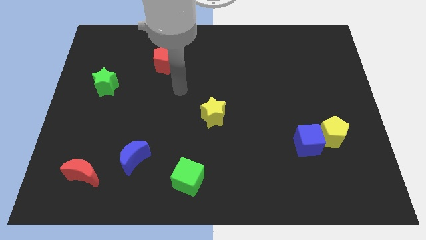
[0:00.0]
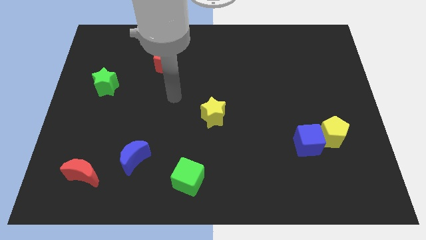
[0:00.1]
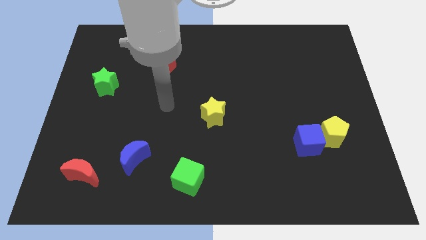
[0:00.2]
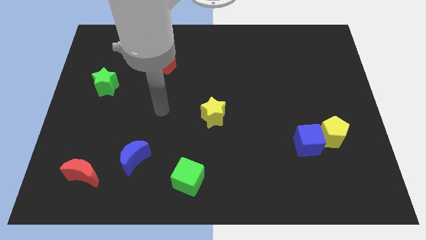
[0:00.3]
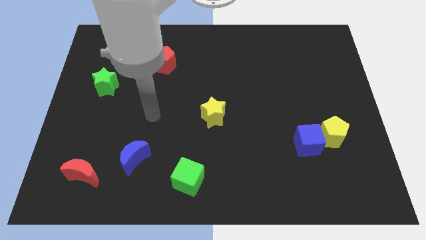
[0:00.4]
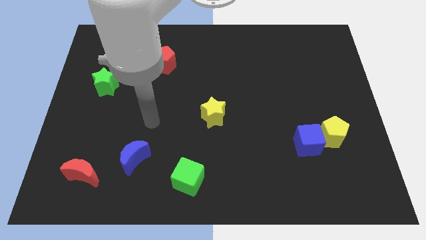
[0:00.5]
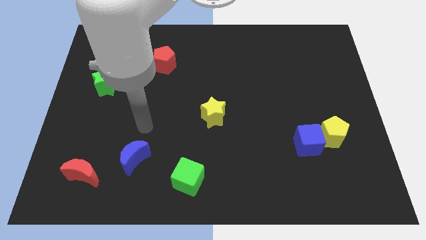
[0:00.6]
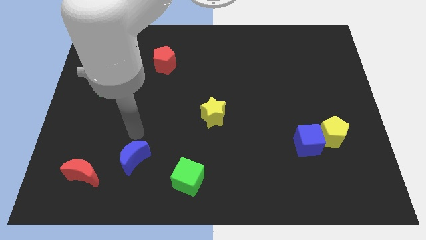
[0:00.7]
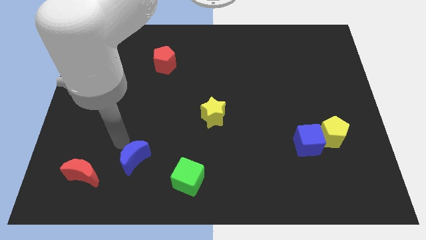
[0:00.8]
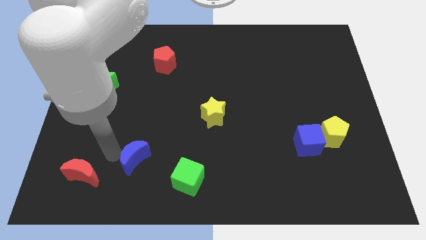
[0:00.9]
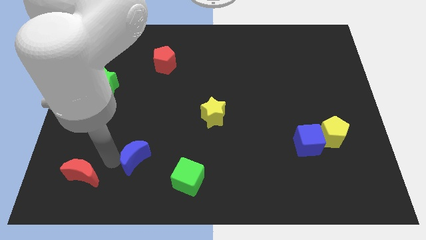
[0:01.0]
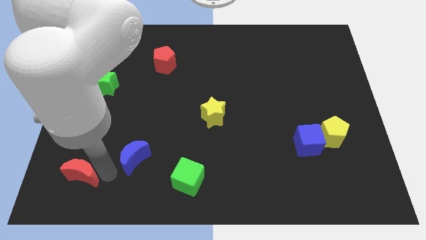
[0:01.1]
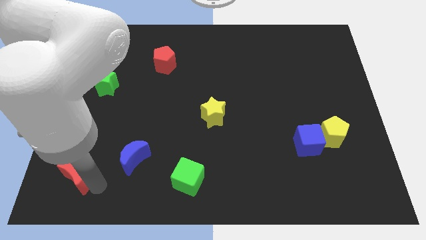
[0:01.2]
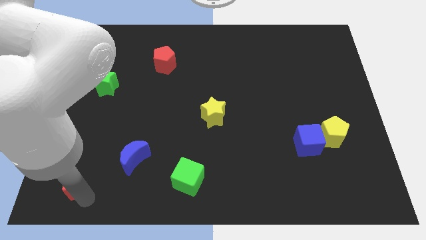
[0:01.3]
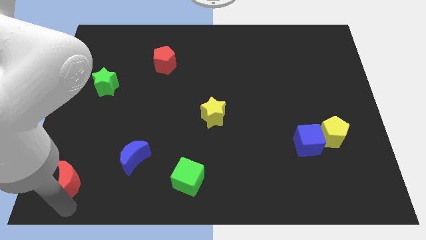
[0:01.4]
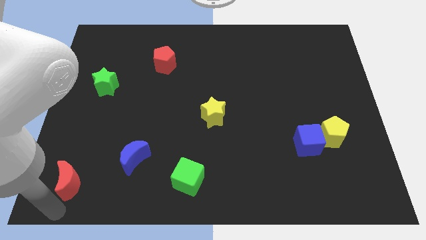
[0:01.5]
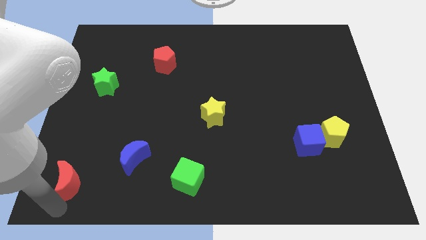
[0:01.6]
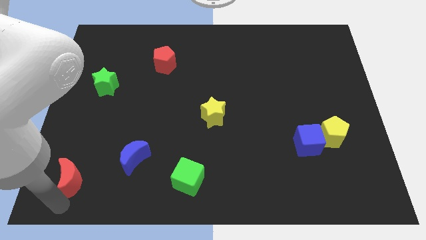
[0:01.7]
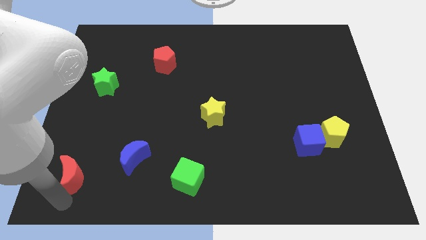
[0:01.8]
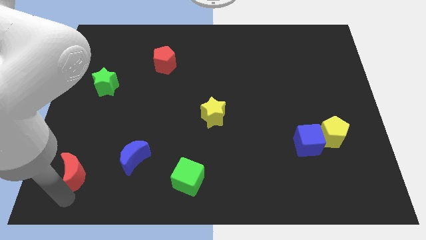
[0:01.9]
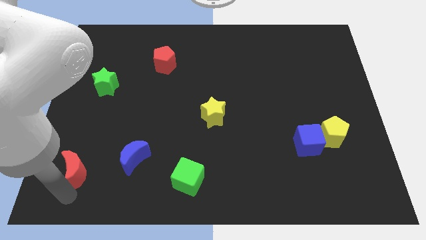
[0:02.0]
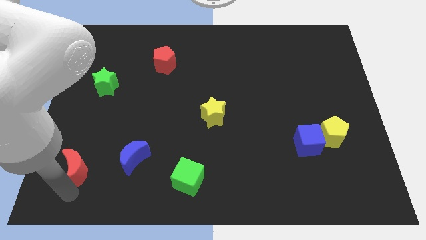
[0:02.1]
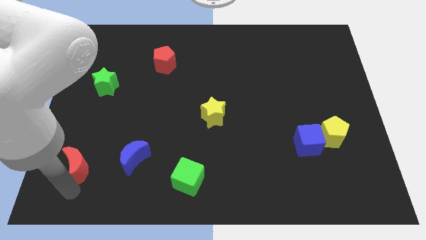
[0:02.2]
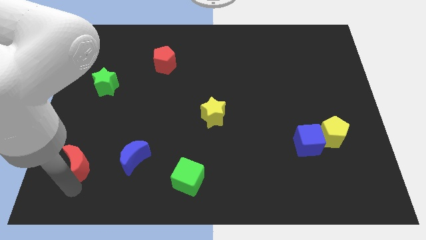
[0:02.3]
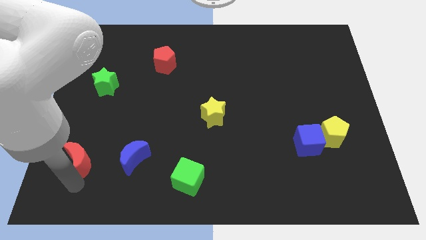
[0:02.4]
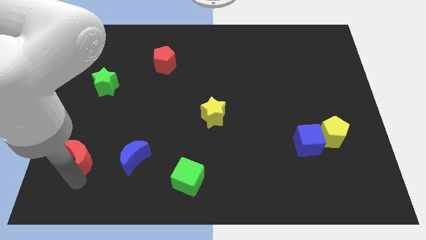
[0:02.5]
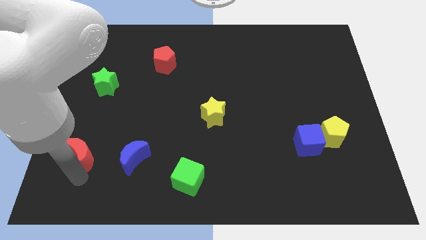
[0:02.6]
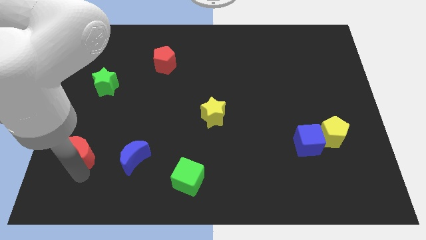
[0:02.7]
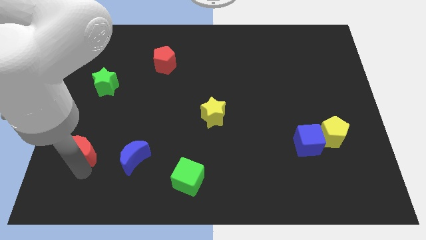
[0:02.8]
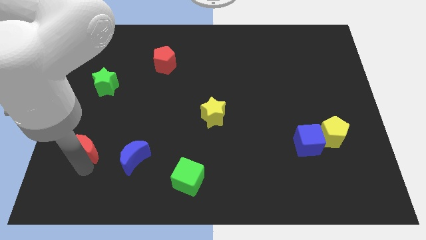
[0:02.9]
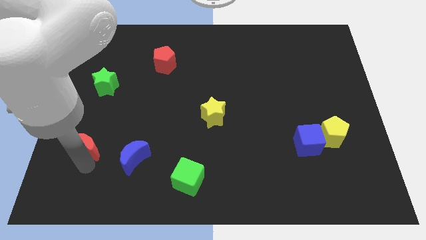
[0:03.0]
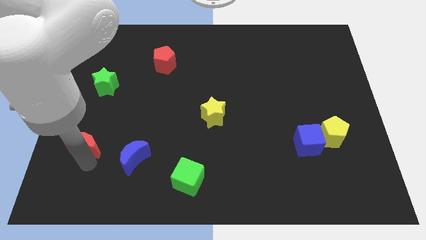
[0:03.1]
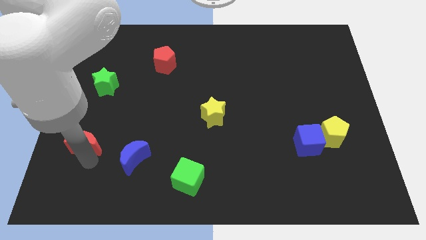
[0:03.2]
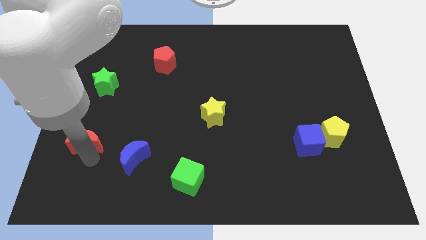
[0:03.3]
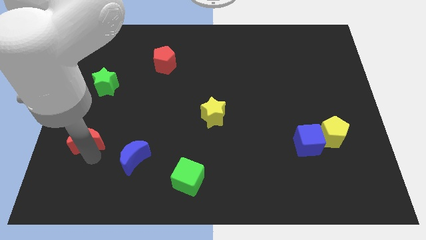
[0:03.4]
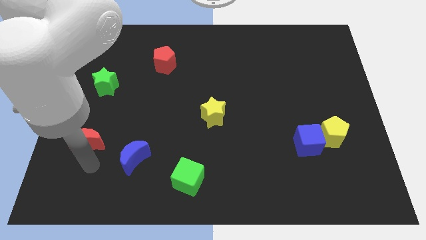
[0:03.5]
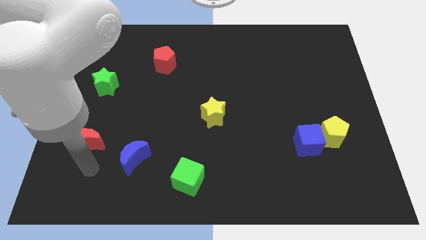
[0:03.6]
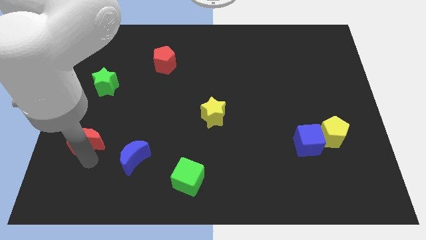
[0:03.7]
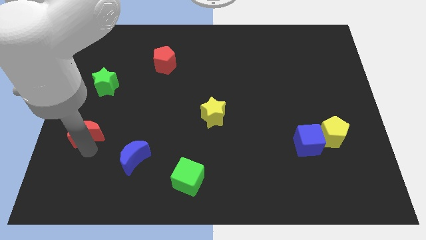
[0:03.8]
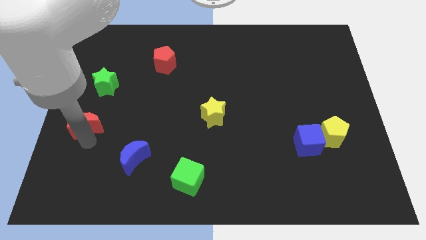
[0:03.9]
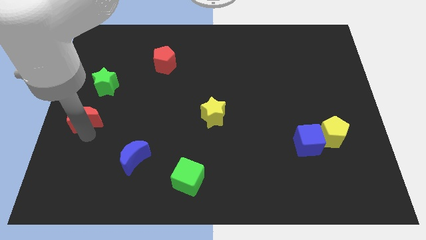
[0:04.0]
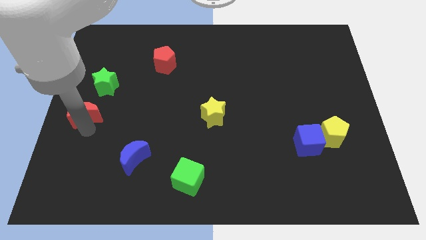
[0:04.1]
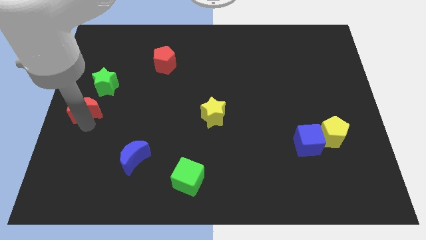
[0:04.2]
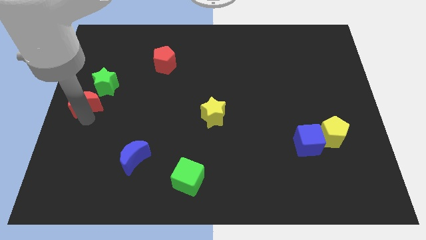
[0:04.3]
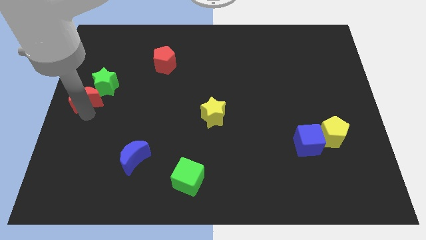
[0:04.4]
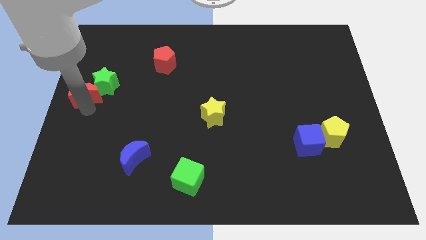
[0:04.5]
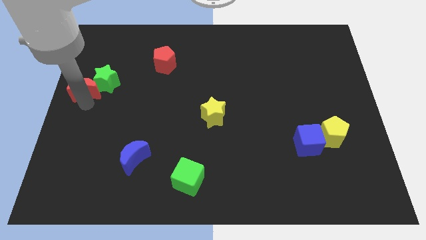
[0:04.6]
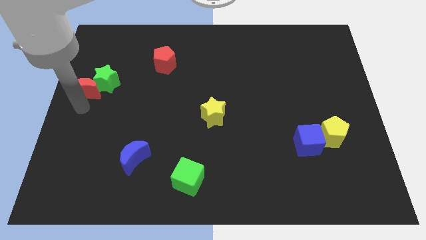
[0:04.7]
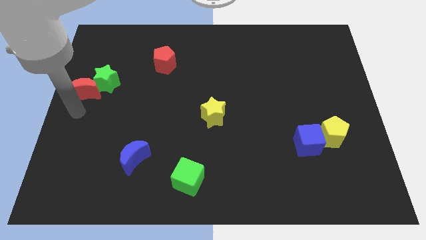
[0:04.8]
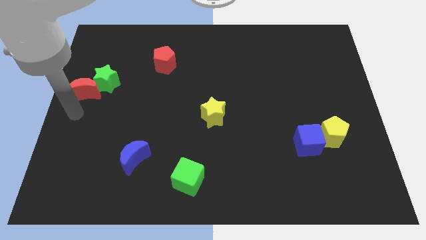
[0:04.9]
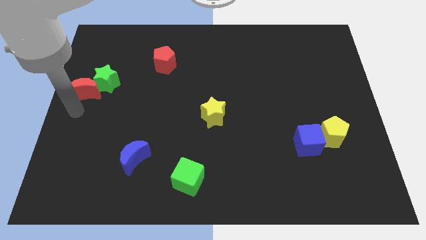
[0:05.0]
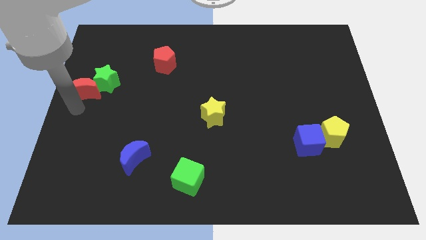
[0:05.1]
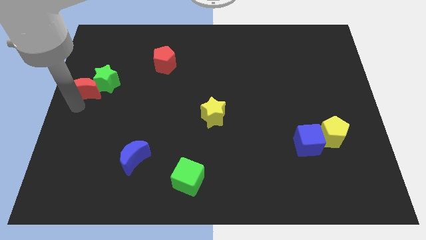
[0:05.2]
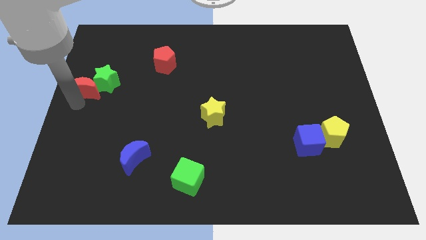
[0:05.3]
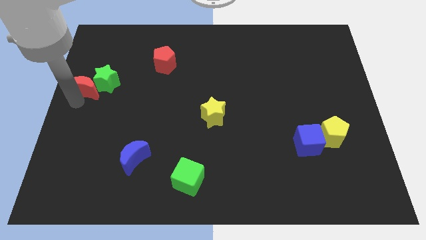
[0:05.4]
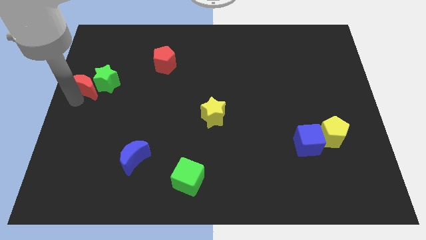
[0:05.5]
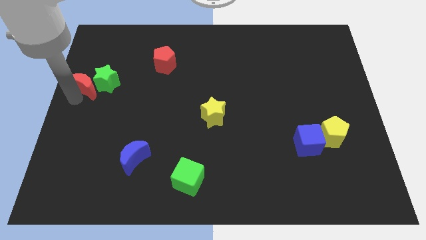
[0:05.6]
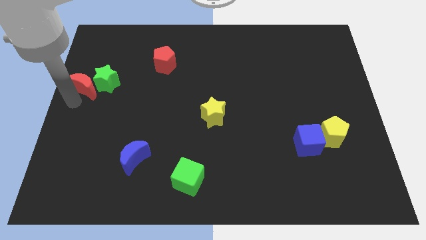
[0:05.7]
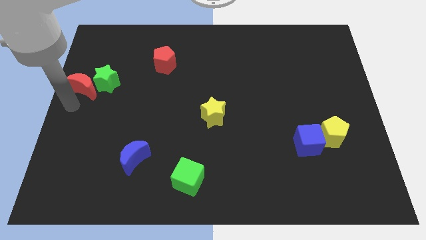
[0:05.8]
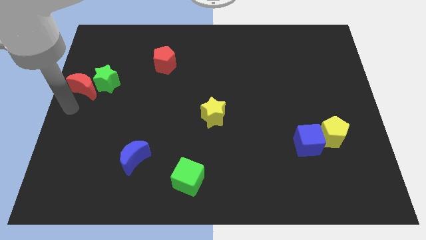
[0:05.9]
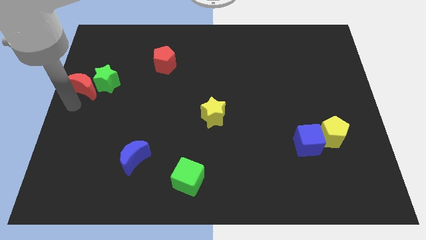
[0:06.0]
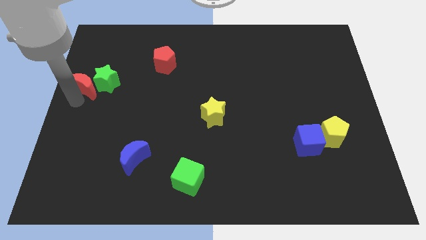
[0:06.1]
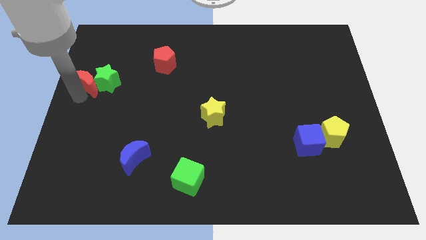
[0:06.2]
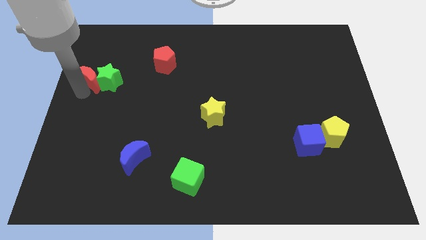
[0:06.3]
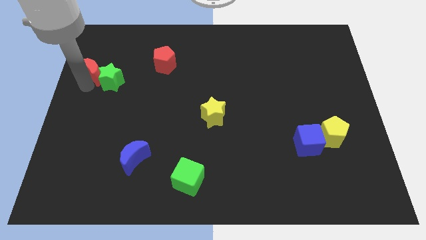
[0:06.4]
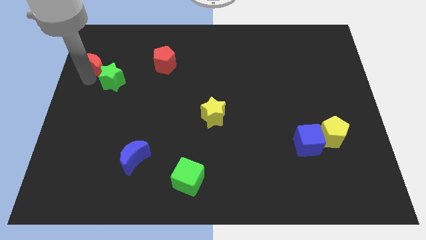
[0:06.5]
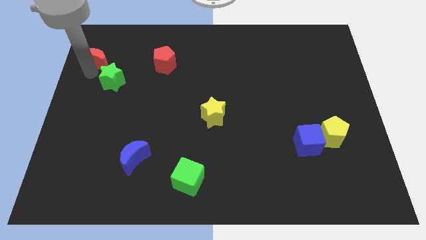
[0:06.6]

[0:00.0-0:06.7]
push the red moon above the green star

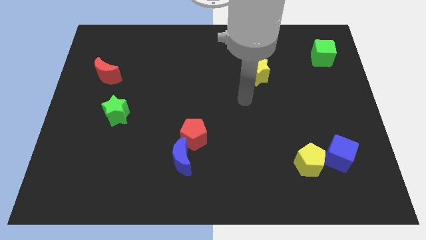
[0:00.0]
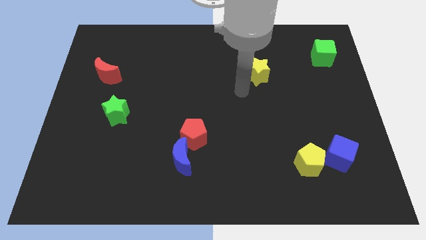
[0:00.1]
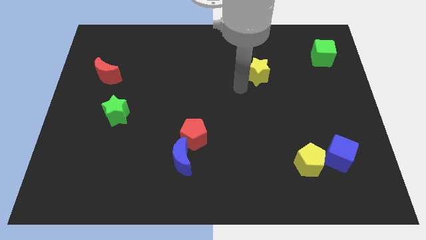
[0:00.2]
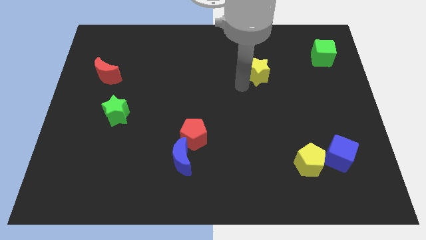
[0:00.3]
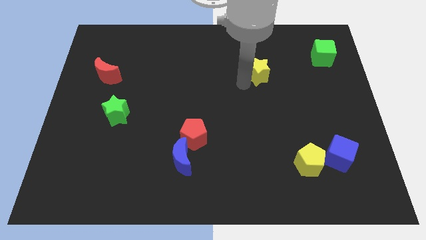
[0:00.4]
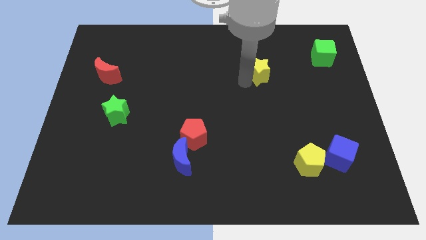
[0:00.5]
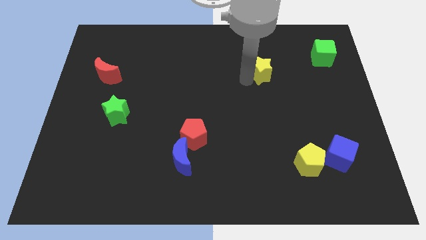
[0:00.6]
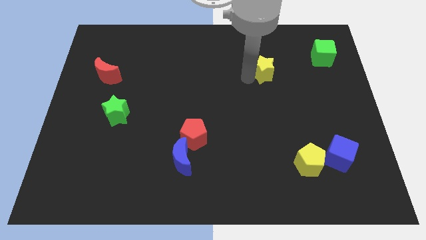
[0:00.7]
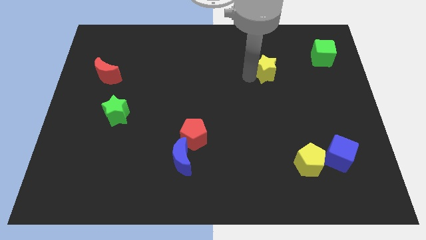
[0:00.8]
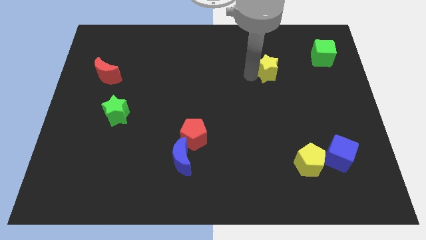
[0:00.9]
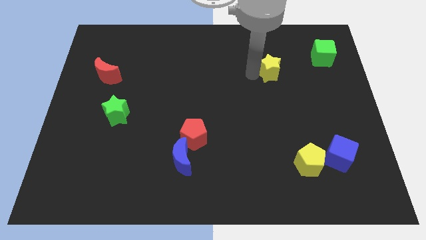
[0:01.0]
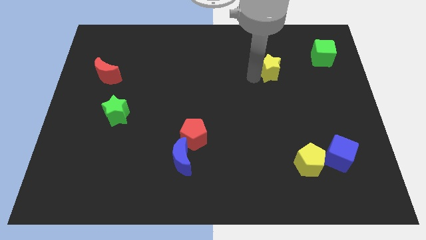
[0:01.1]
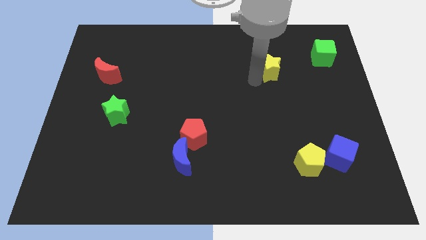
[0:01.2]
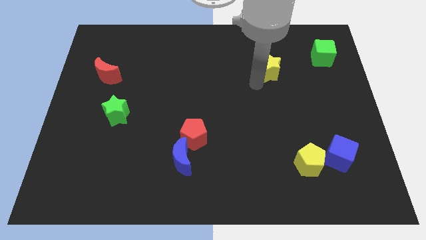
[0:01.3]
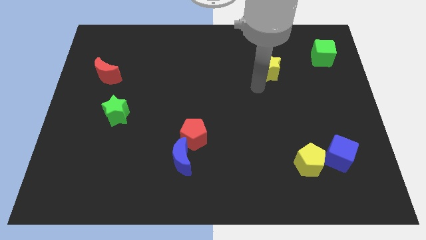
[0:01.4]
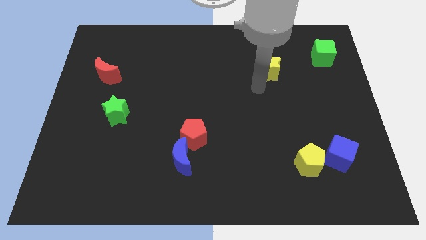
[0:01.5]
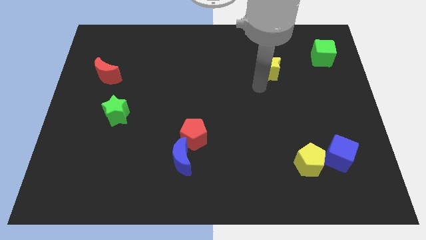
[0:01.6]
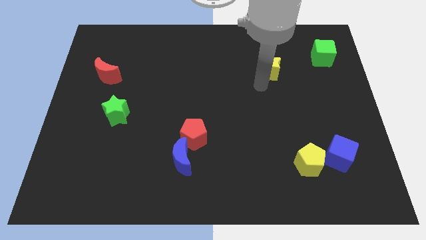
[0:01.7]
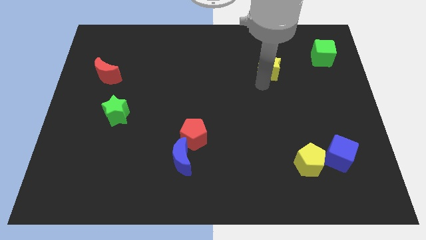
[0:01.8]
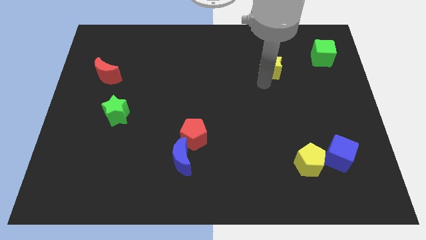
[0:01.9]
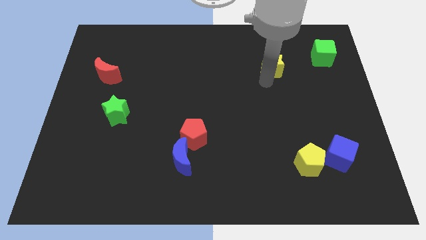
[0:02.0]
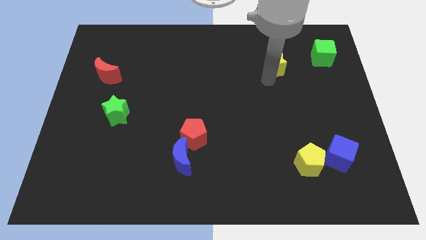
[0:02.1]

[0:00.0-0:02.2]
slide the yellow star just left of the green cube
